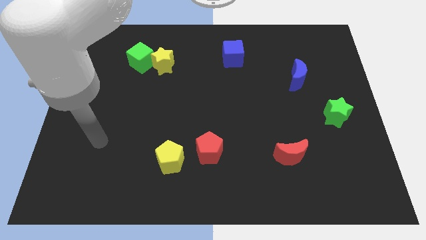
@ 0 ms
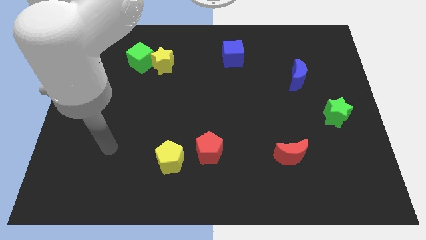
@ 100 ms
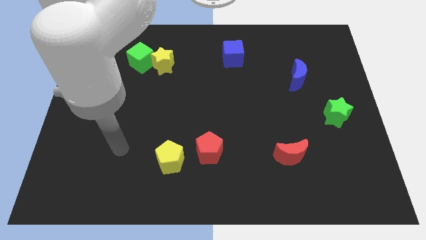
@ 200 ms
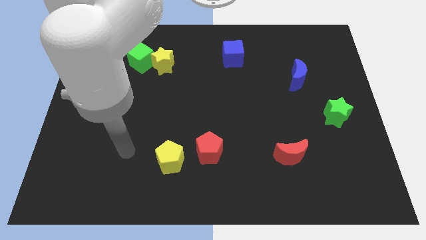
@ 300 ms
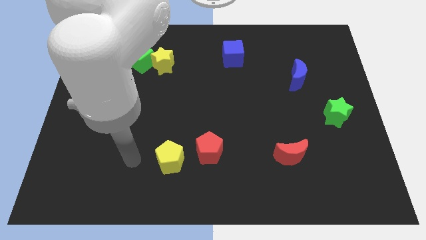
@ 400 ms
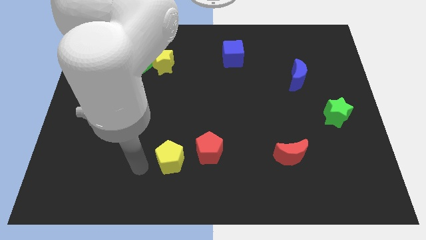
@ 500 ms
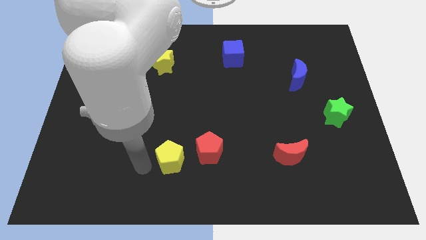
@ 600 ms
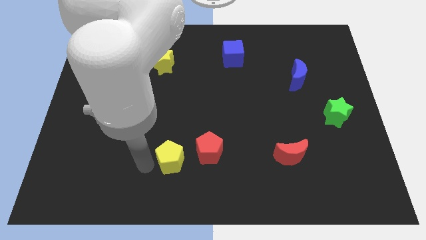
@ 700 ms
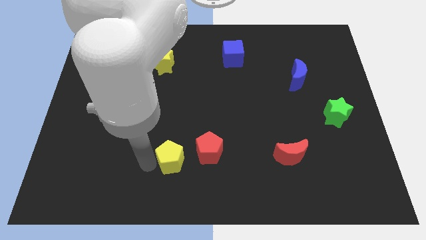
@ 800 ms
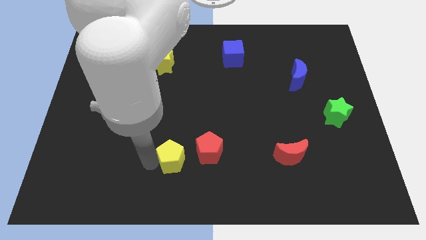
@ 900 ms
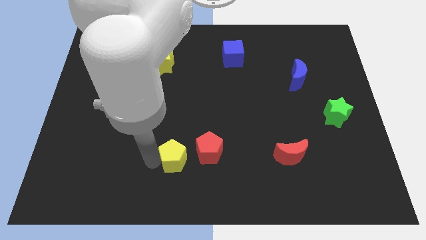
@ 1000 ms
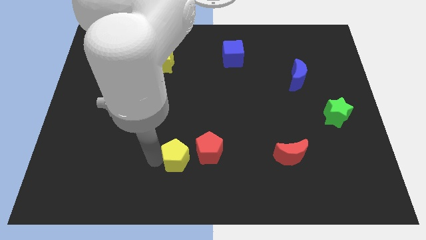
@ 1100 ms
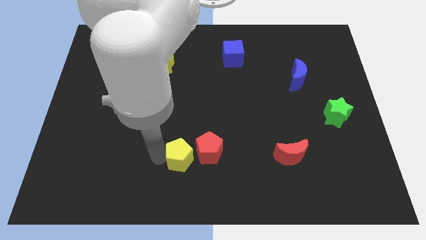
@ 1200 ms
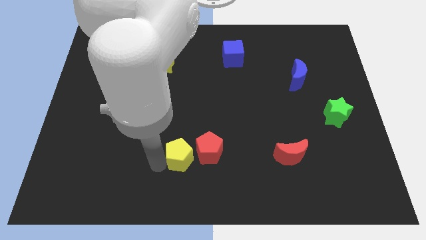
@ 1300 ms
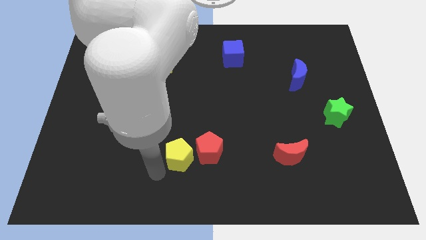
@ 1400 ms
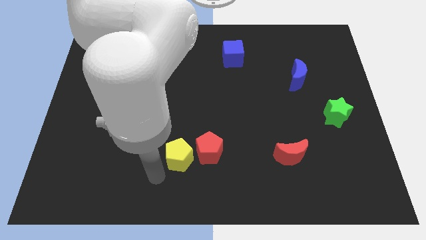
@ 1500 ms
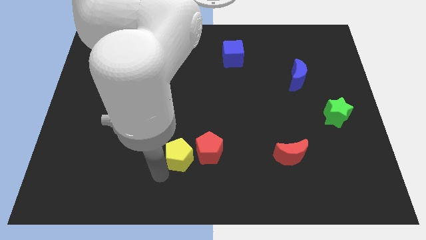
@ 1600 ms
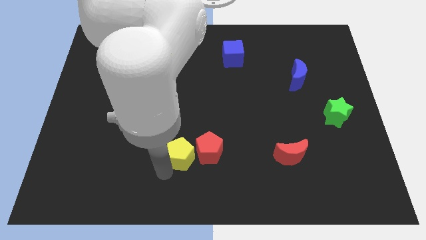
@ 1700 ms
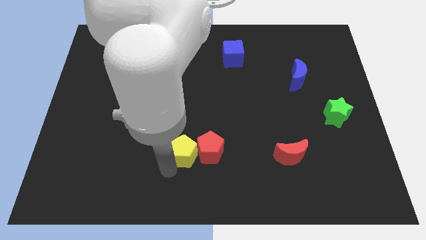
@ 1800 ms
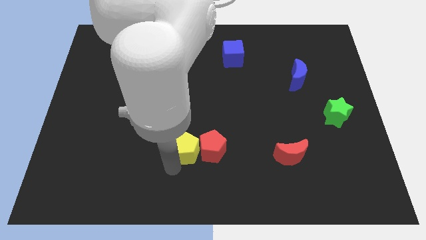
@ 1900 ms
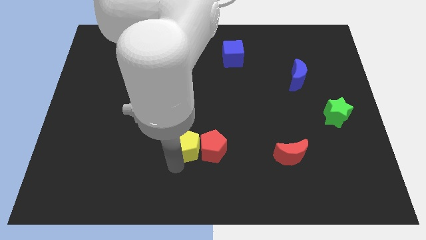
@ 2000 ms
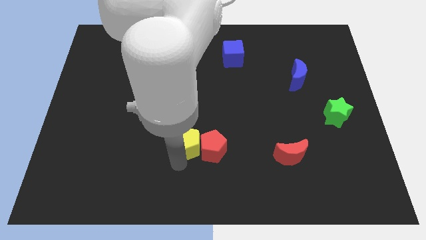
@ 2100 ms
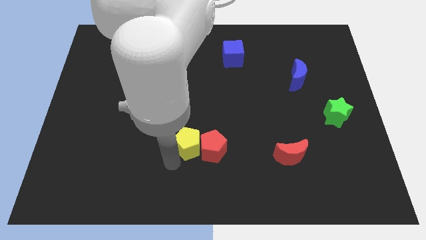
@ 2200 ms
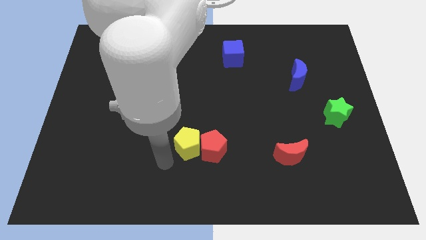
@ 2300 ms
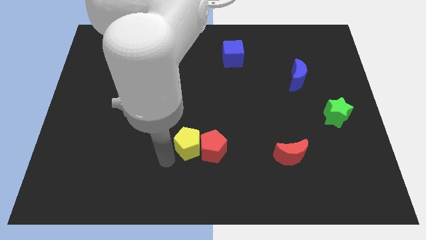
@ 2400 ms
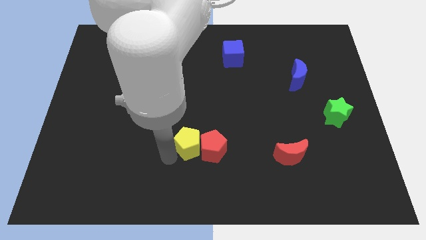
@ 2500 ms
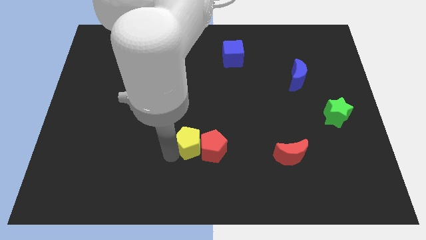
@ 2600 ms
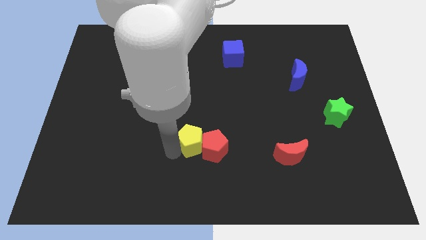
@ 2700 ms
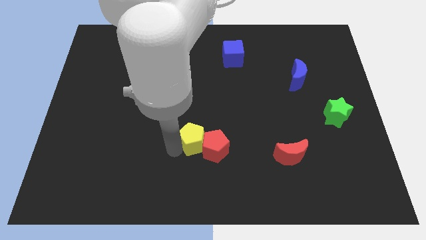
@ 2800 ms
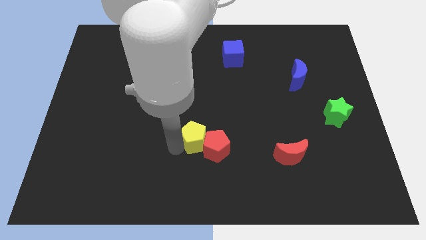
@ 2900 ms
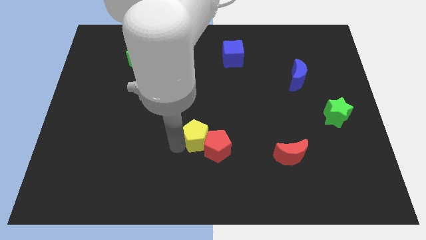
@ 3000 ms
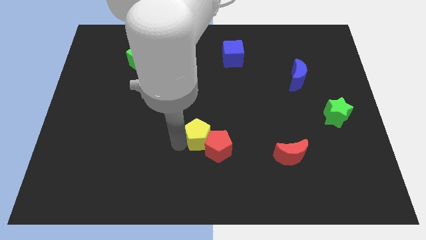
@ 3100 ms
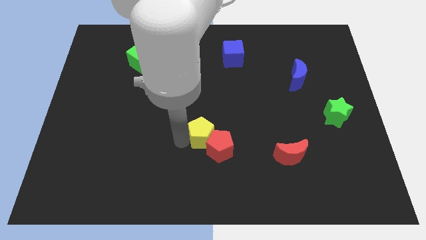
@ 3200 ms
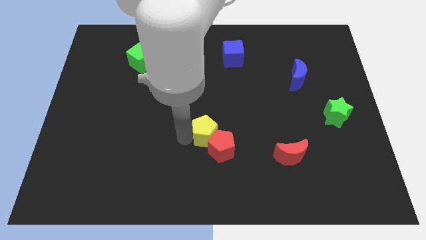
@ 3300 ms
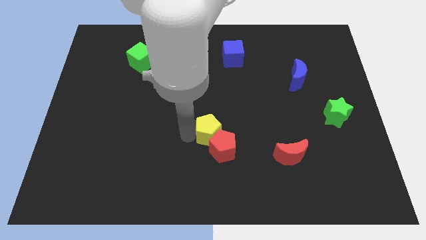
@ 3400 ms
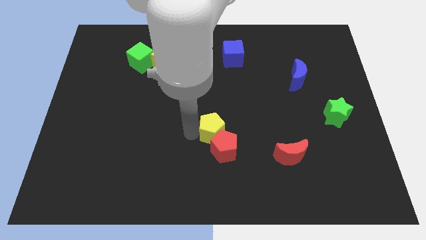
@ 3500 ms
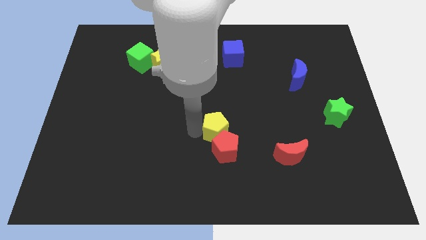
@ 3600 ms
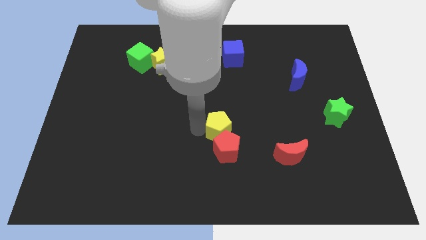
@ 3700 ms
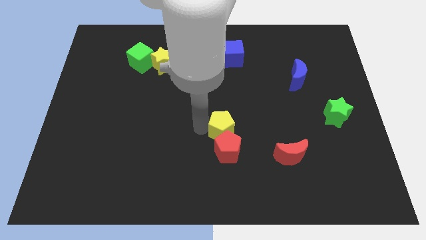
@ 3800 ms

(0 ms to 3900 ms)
push the yellow pentagon diagonally up and to the right of the red pentagon

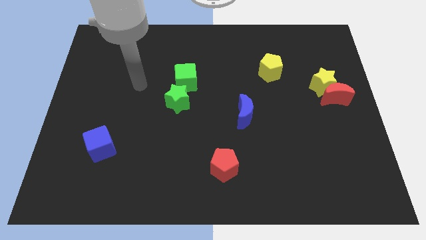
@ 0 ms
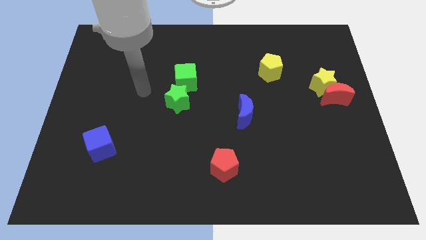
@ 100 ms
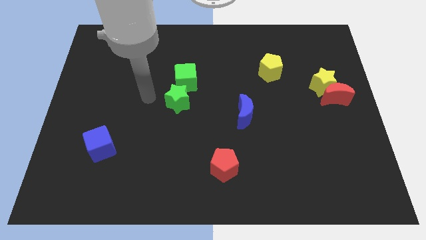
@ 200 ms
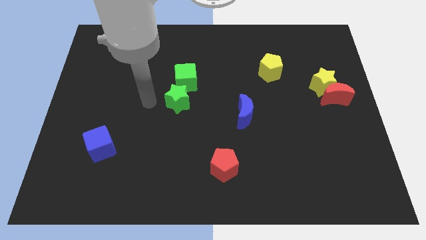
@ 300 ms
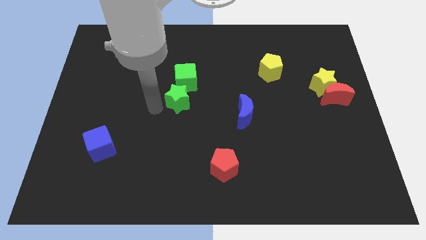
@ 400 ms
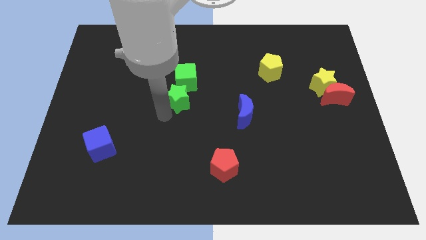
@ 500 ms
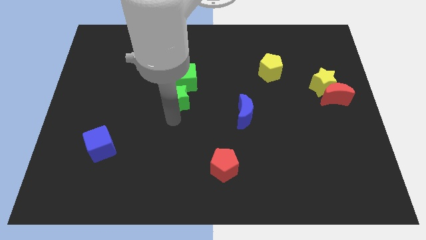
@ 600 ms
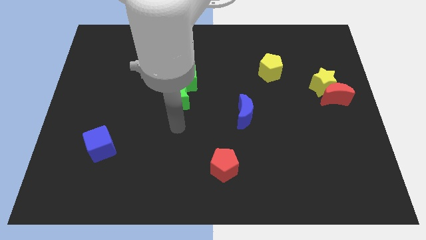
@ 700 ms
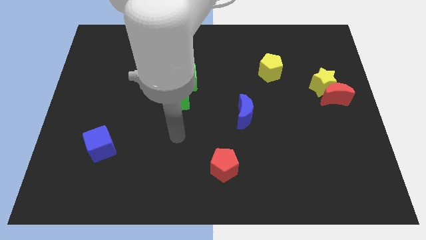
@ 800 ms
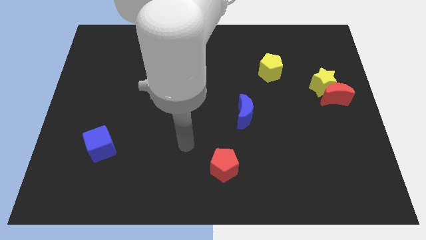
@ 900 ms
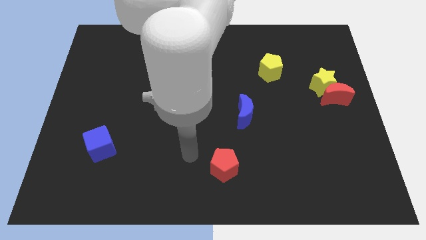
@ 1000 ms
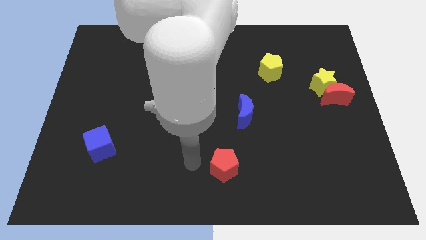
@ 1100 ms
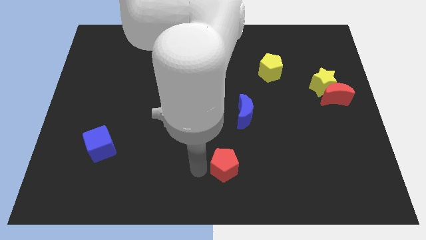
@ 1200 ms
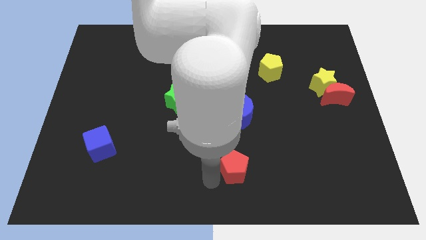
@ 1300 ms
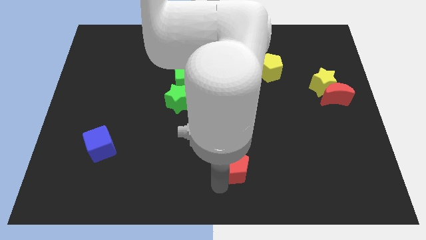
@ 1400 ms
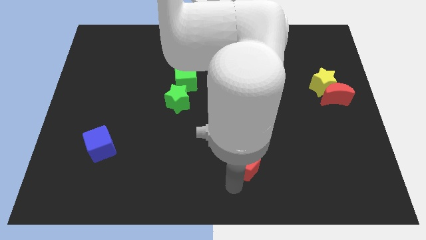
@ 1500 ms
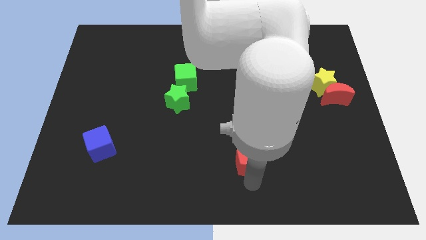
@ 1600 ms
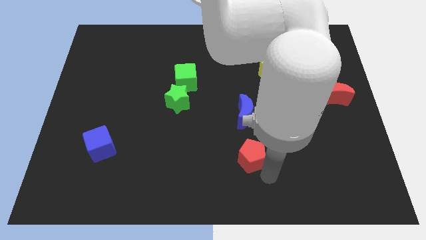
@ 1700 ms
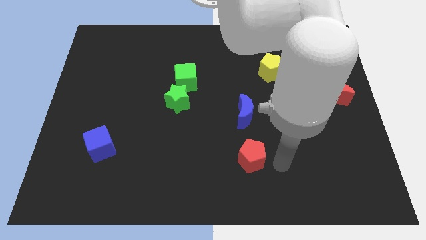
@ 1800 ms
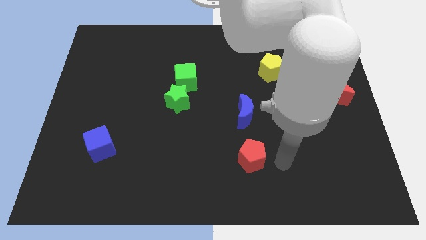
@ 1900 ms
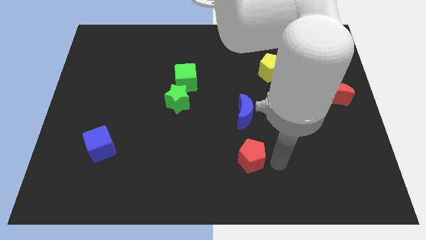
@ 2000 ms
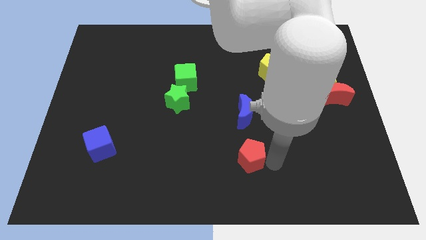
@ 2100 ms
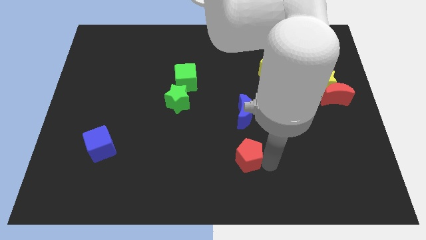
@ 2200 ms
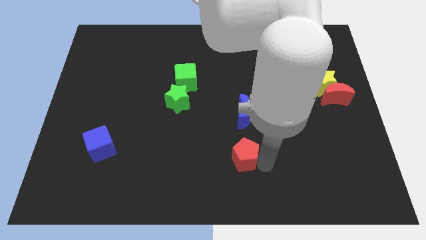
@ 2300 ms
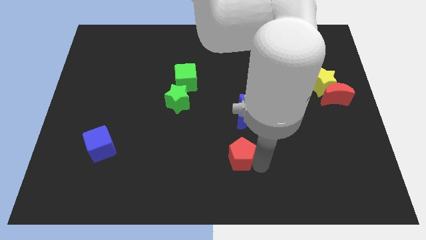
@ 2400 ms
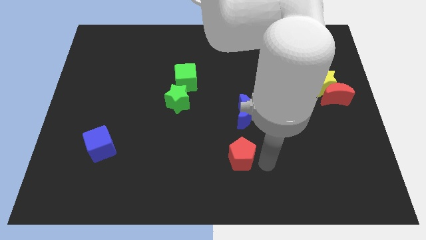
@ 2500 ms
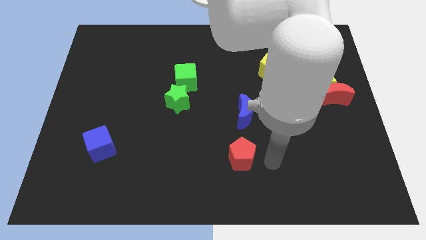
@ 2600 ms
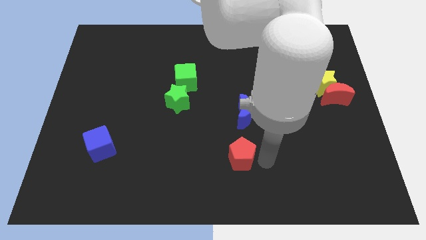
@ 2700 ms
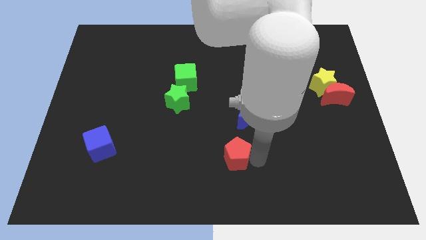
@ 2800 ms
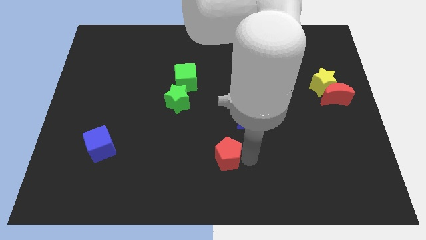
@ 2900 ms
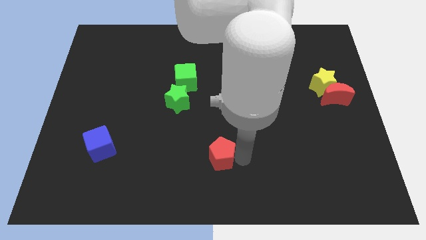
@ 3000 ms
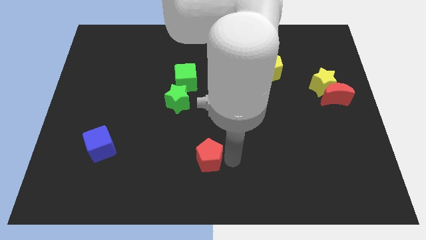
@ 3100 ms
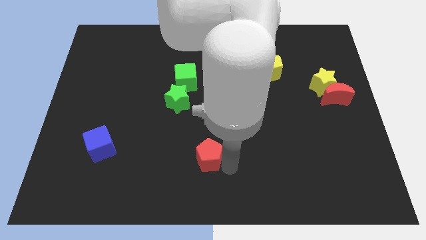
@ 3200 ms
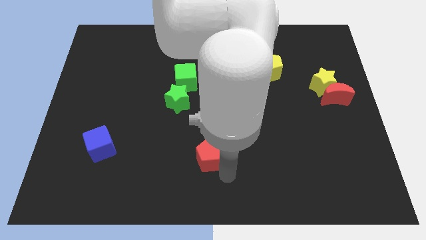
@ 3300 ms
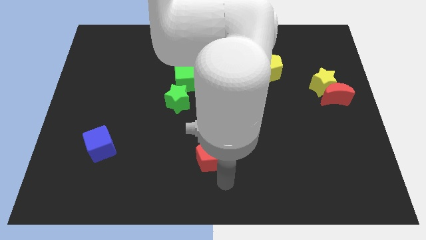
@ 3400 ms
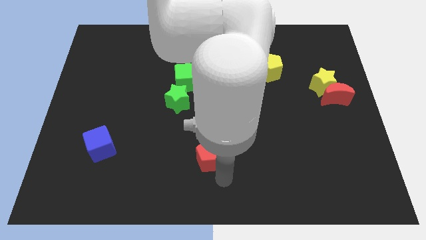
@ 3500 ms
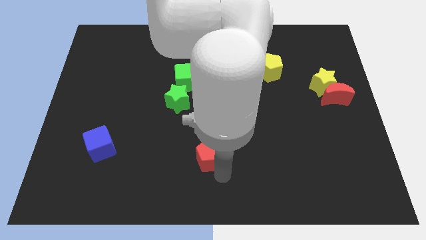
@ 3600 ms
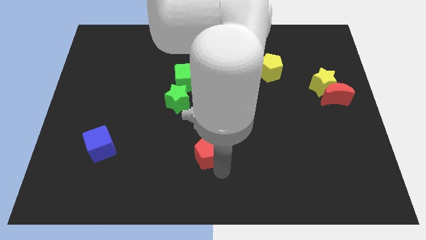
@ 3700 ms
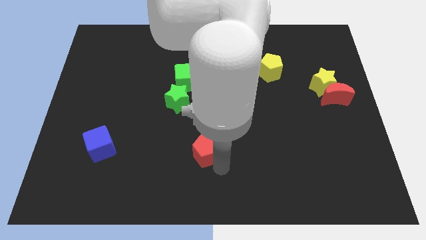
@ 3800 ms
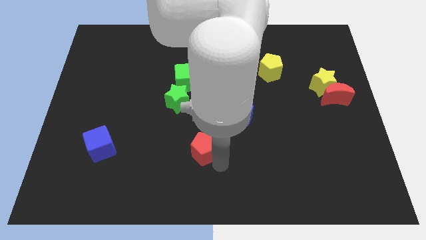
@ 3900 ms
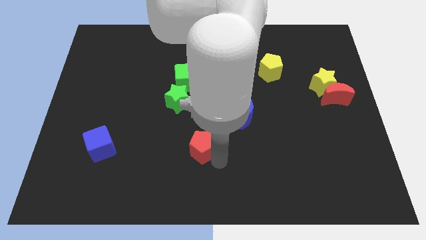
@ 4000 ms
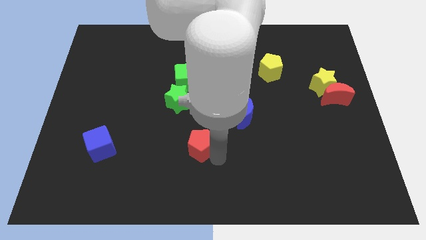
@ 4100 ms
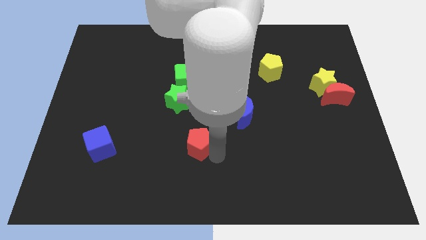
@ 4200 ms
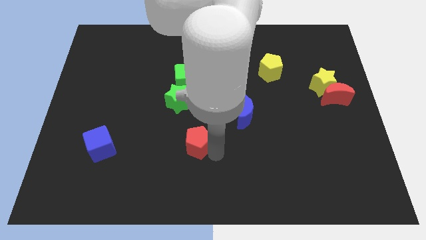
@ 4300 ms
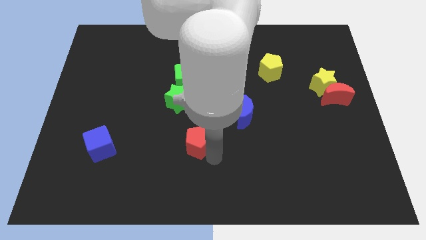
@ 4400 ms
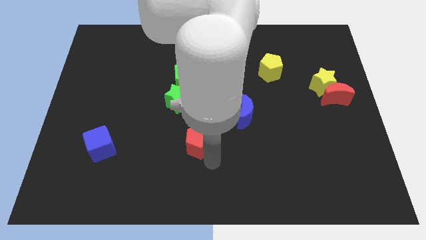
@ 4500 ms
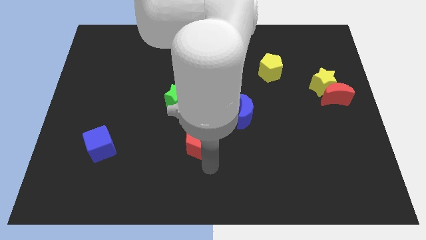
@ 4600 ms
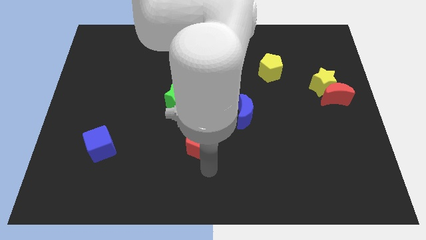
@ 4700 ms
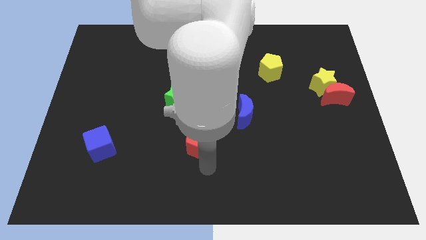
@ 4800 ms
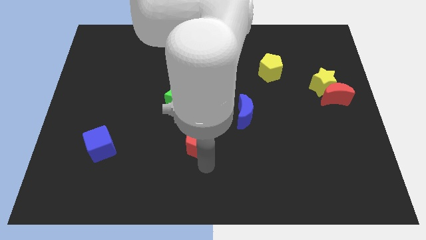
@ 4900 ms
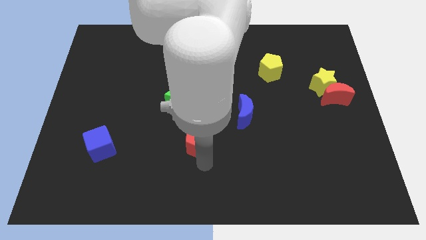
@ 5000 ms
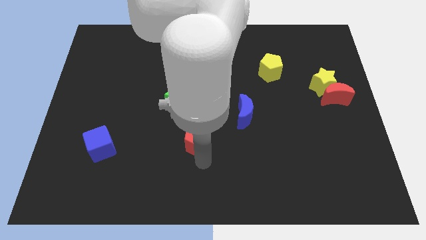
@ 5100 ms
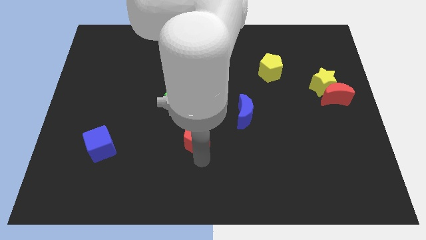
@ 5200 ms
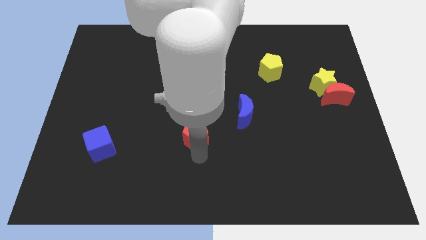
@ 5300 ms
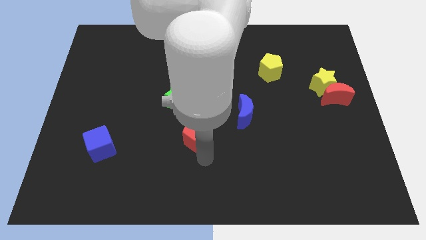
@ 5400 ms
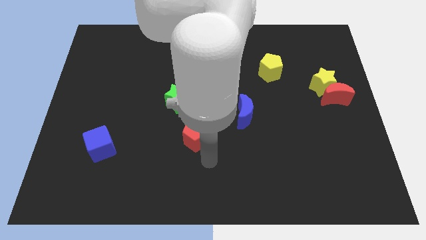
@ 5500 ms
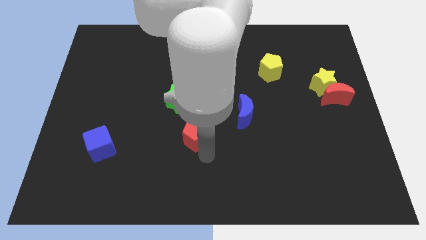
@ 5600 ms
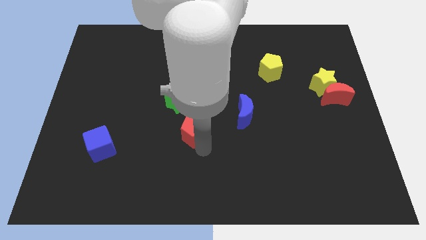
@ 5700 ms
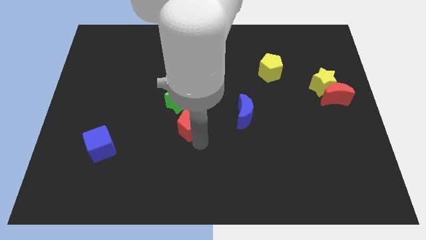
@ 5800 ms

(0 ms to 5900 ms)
move the red pentagon to the bottom side of the green cube
